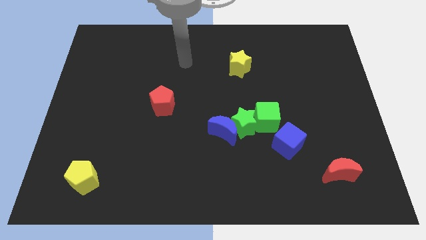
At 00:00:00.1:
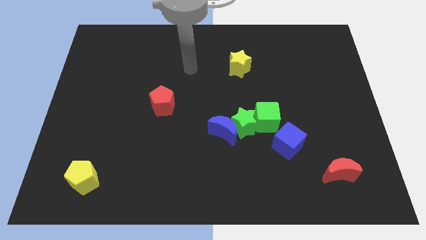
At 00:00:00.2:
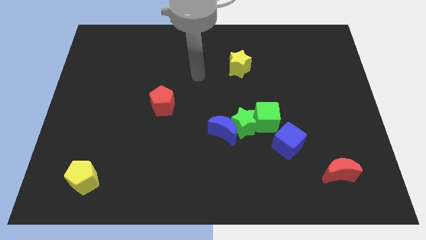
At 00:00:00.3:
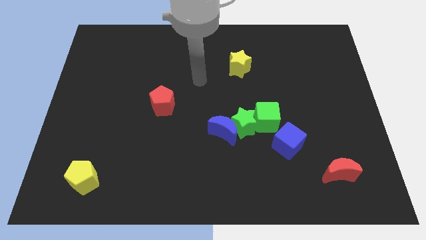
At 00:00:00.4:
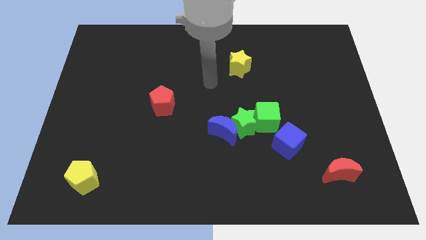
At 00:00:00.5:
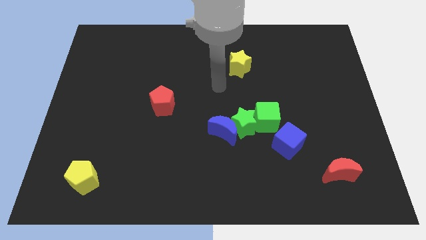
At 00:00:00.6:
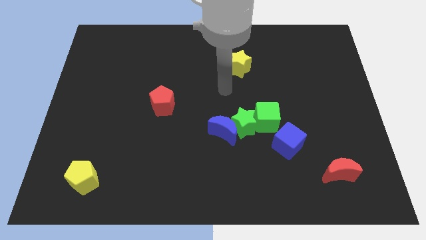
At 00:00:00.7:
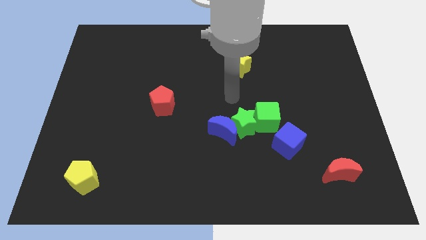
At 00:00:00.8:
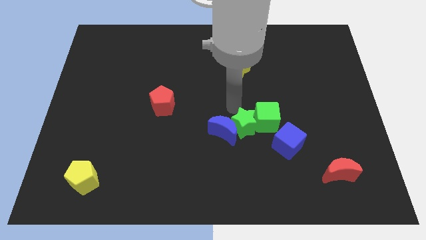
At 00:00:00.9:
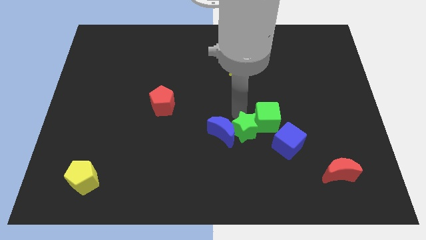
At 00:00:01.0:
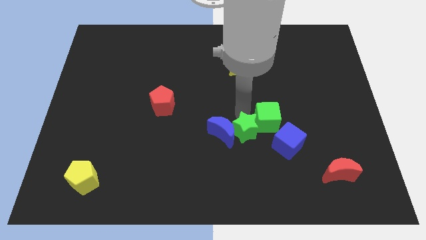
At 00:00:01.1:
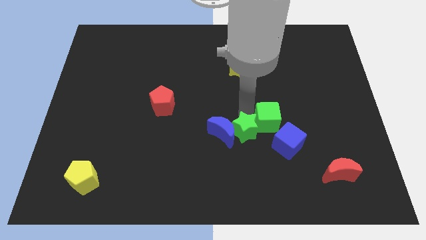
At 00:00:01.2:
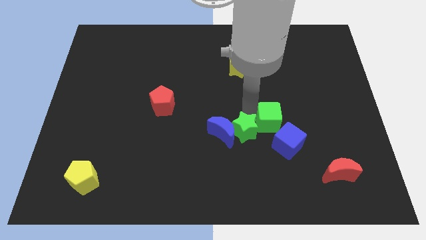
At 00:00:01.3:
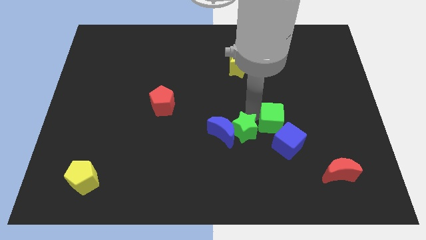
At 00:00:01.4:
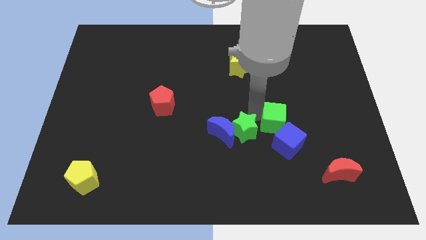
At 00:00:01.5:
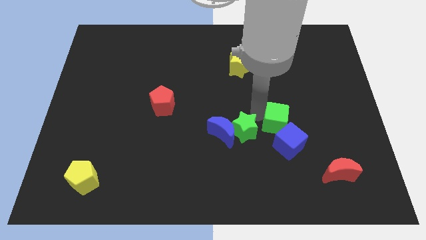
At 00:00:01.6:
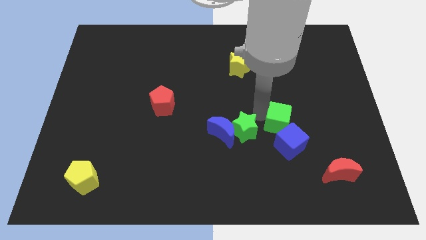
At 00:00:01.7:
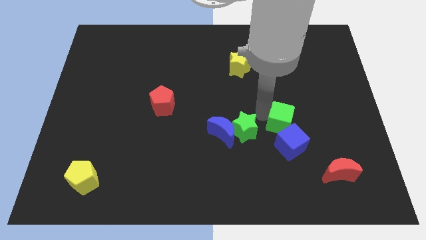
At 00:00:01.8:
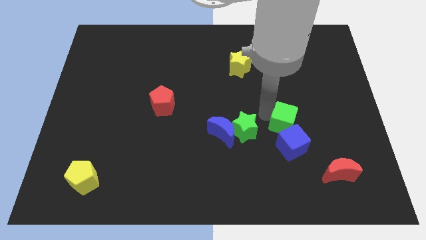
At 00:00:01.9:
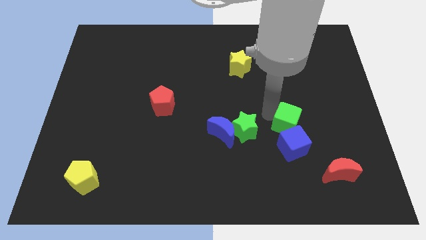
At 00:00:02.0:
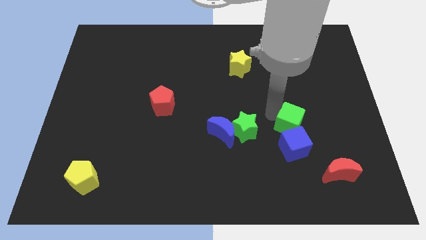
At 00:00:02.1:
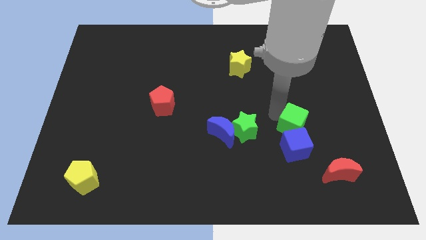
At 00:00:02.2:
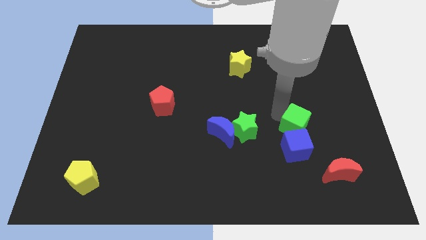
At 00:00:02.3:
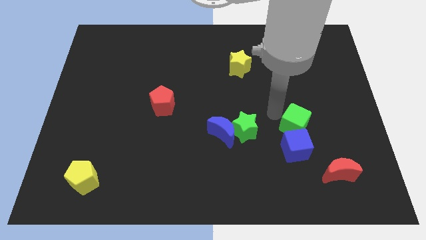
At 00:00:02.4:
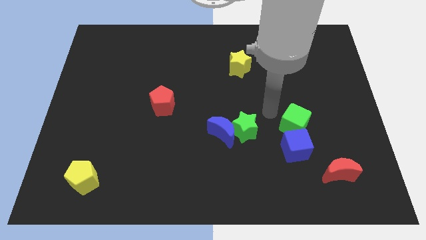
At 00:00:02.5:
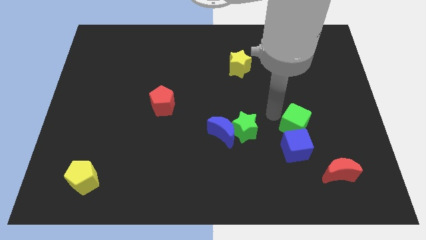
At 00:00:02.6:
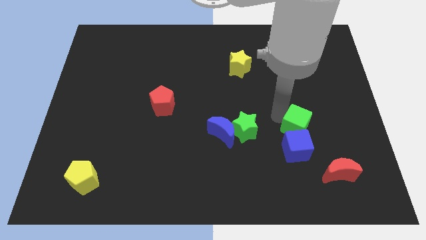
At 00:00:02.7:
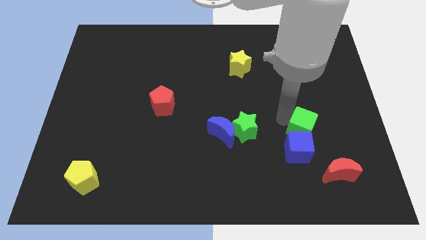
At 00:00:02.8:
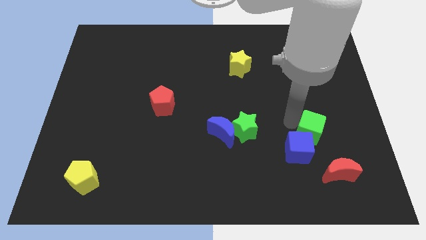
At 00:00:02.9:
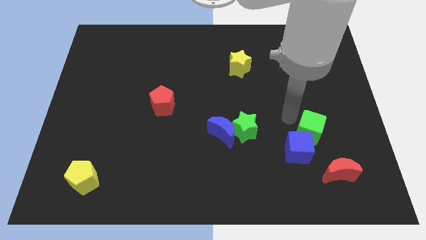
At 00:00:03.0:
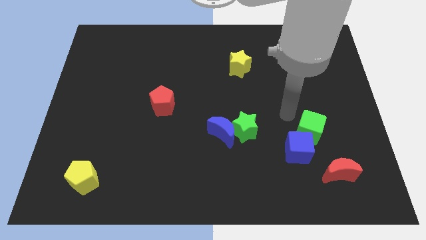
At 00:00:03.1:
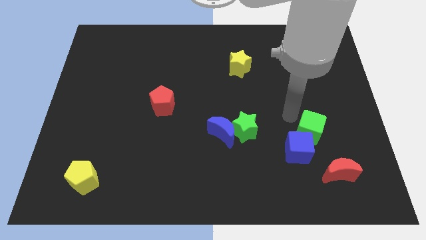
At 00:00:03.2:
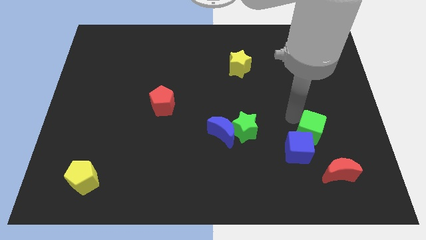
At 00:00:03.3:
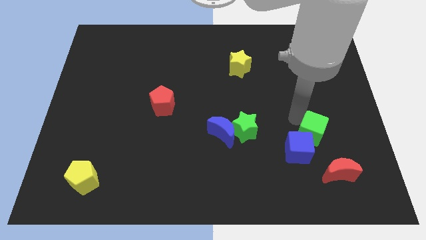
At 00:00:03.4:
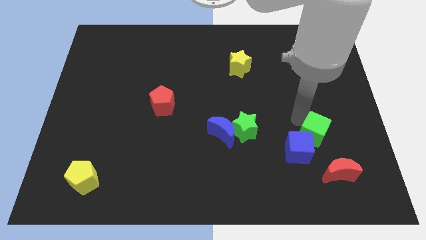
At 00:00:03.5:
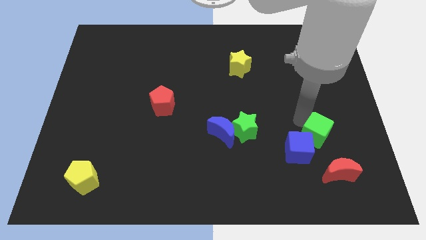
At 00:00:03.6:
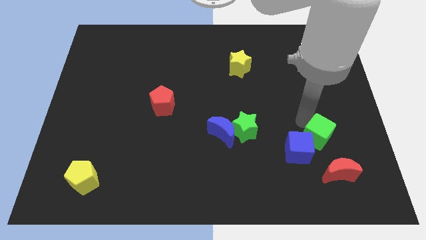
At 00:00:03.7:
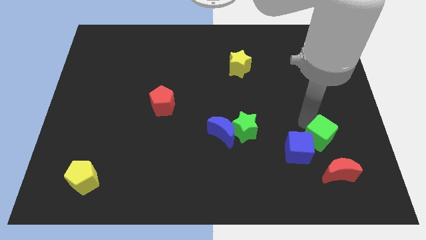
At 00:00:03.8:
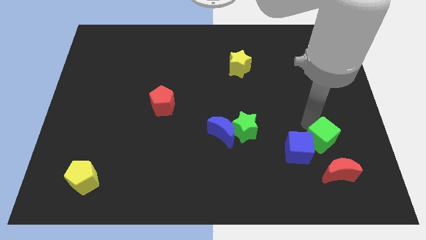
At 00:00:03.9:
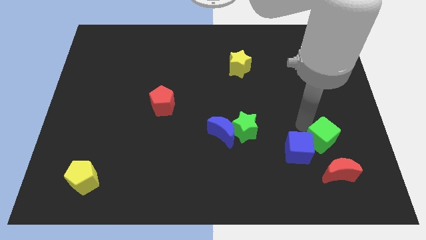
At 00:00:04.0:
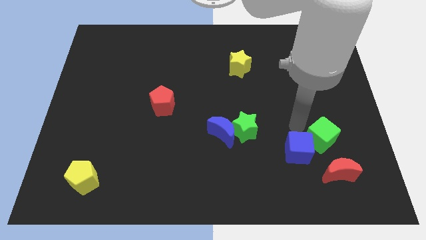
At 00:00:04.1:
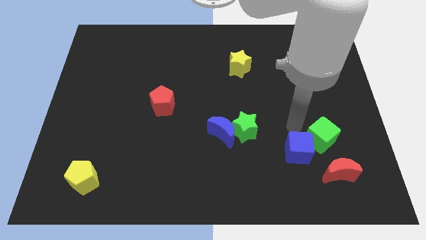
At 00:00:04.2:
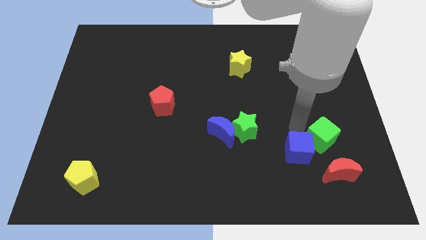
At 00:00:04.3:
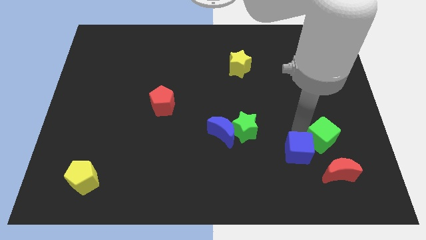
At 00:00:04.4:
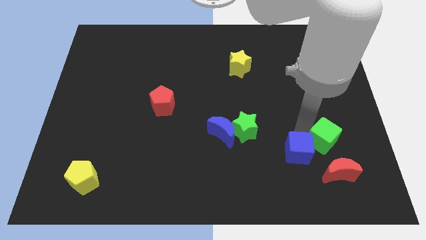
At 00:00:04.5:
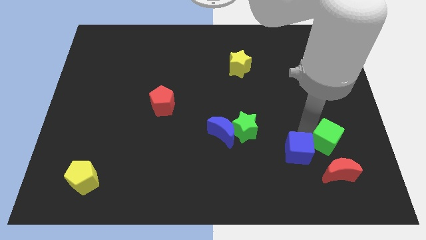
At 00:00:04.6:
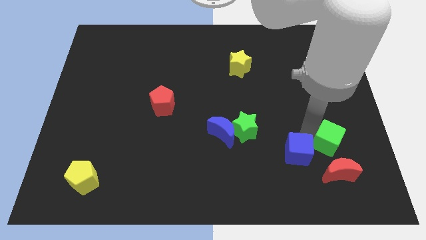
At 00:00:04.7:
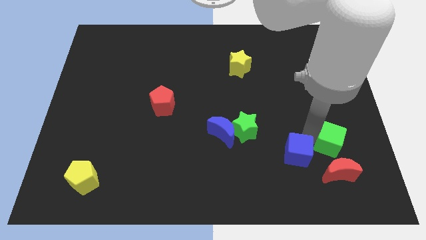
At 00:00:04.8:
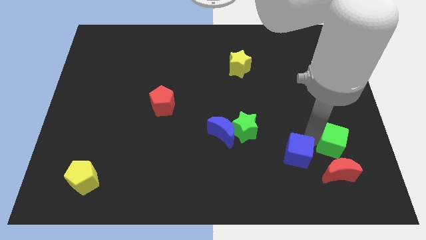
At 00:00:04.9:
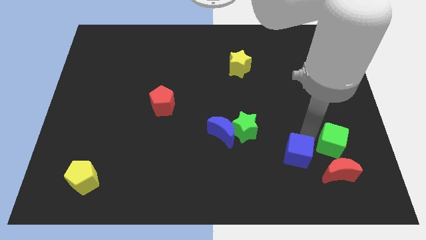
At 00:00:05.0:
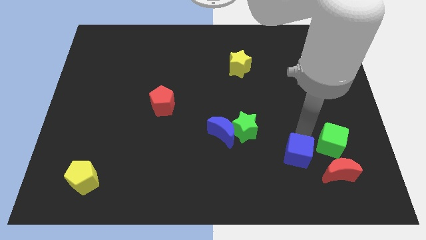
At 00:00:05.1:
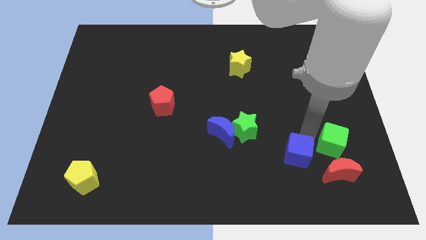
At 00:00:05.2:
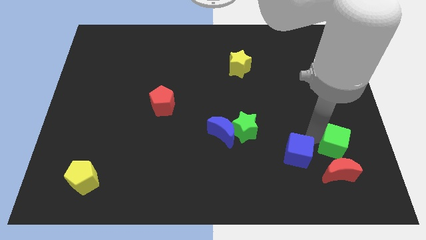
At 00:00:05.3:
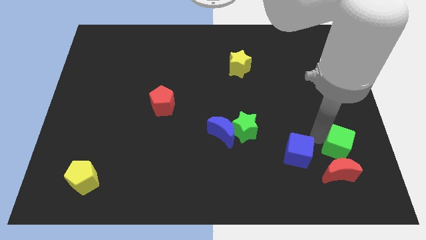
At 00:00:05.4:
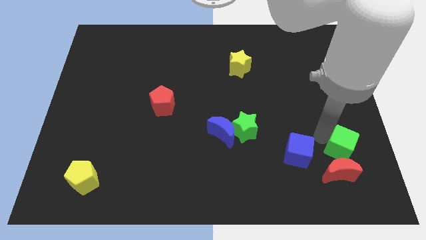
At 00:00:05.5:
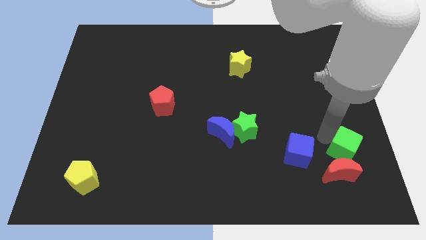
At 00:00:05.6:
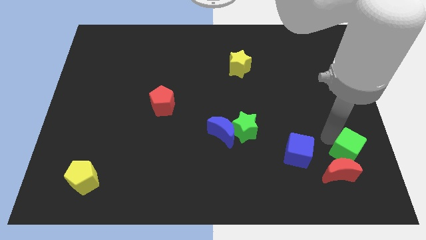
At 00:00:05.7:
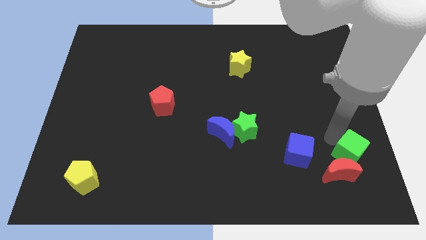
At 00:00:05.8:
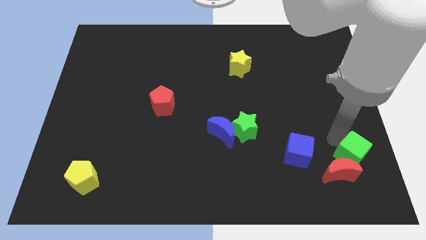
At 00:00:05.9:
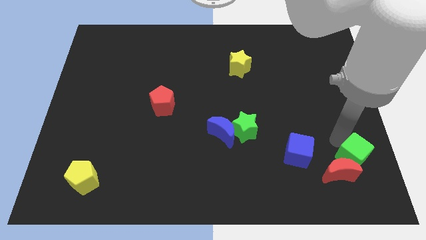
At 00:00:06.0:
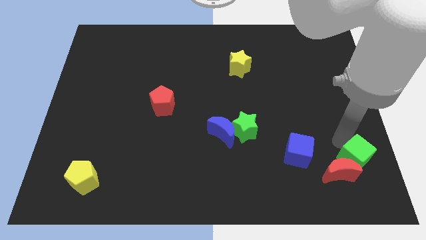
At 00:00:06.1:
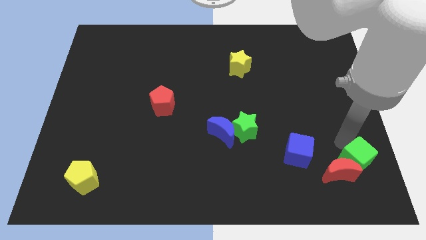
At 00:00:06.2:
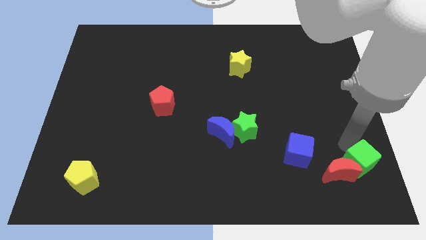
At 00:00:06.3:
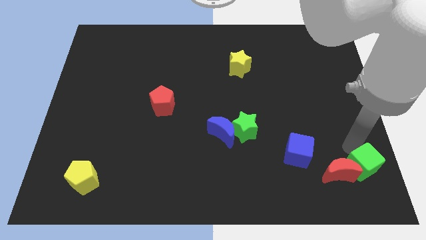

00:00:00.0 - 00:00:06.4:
push the green cube to the lower right corner

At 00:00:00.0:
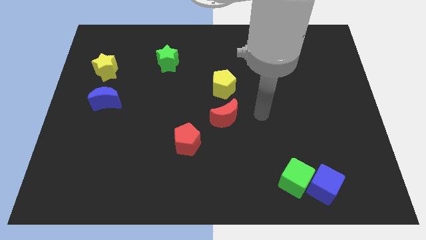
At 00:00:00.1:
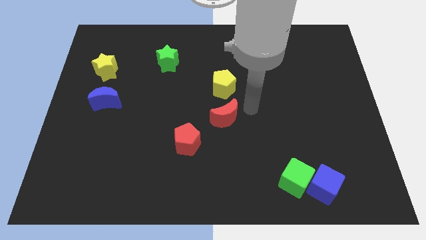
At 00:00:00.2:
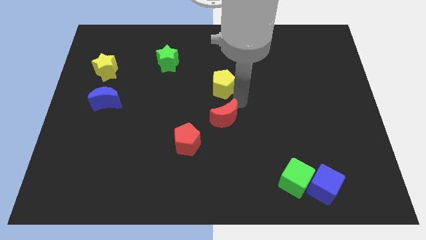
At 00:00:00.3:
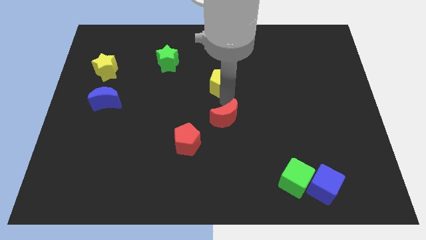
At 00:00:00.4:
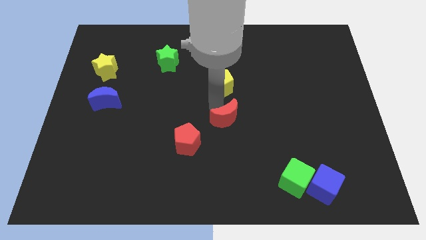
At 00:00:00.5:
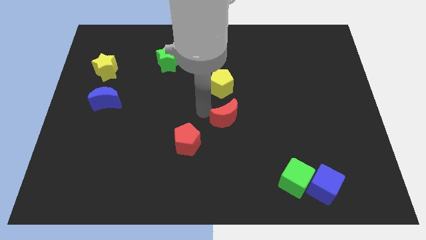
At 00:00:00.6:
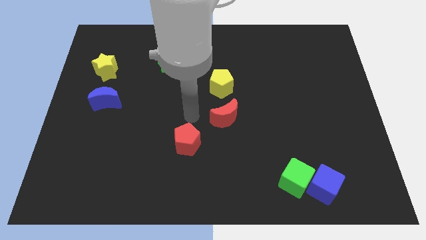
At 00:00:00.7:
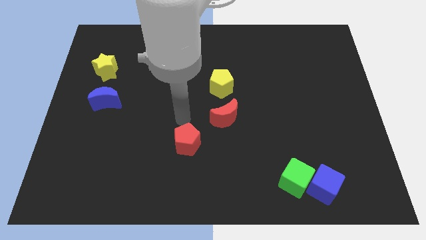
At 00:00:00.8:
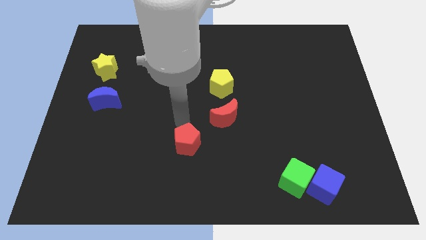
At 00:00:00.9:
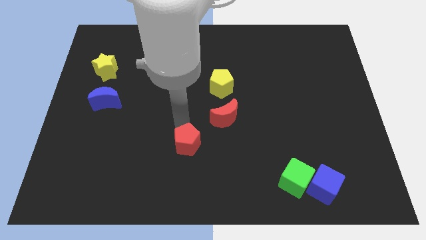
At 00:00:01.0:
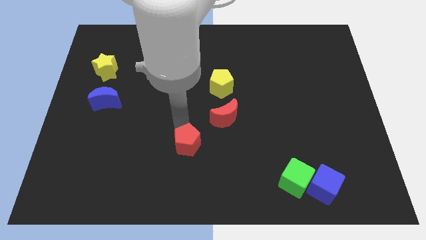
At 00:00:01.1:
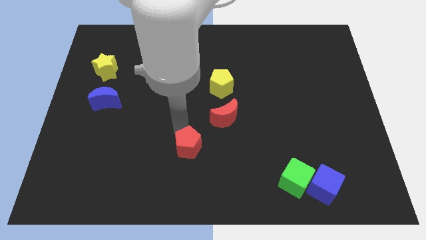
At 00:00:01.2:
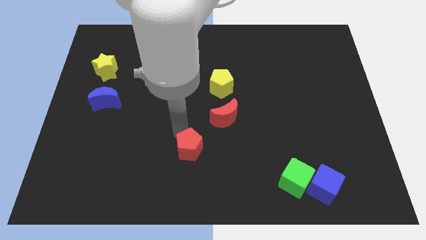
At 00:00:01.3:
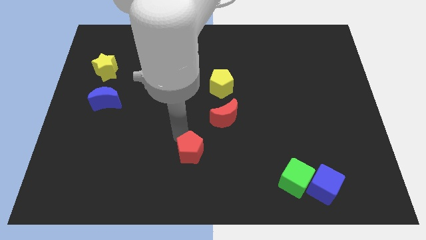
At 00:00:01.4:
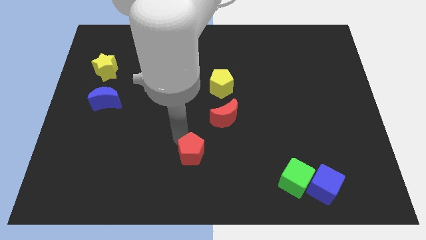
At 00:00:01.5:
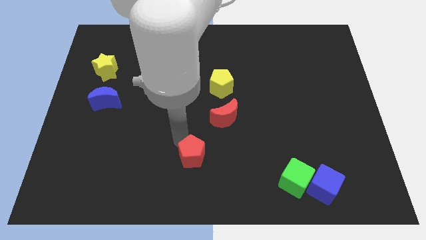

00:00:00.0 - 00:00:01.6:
slide the red pentagon to the bottom side
